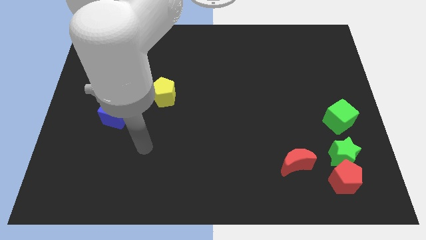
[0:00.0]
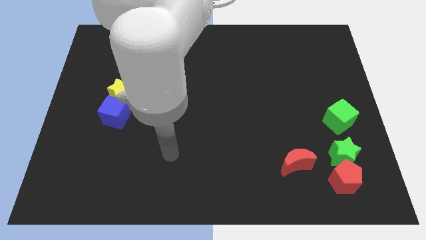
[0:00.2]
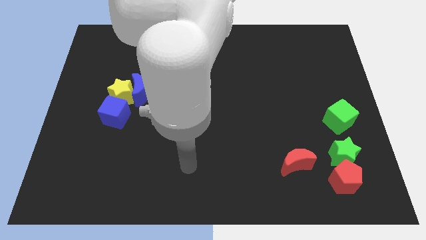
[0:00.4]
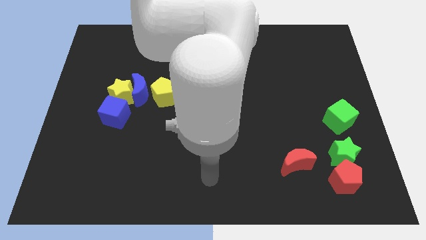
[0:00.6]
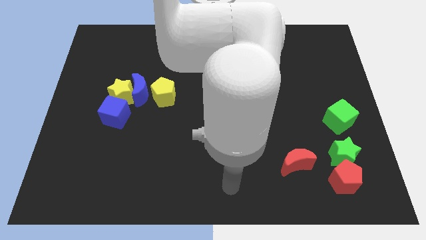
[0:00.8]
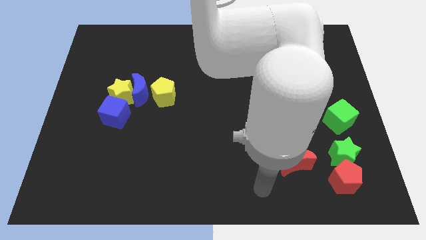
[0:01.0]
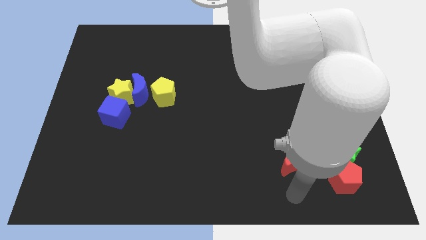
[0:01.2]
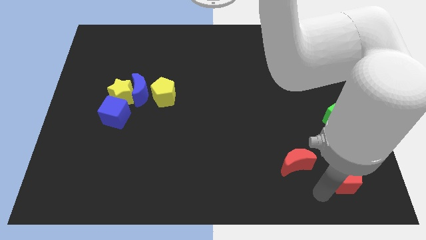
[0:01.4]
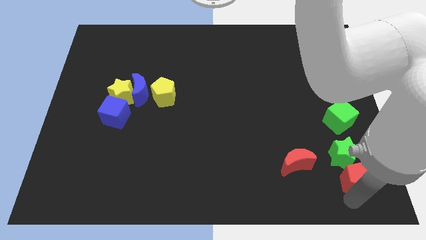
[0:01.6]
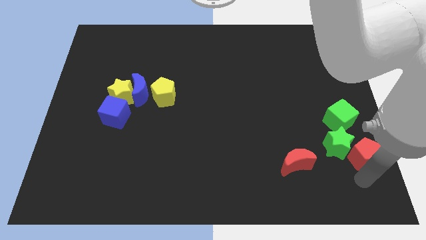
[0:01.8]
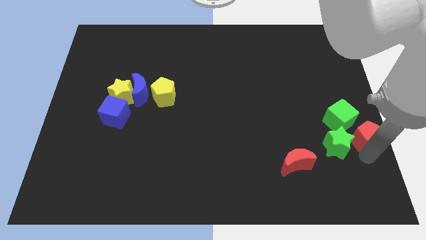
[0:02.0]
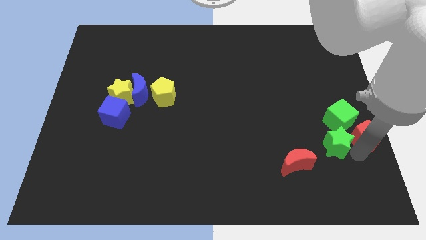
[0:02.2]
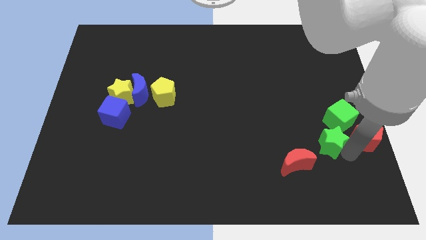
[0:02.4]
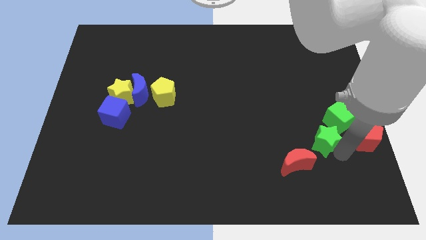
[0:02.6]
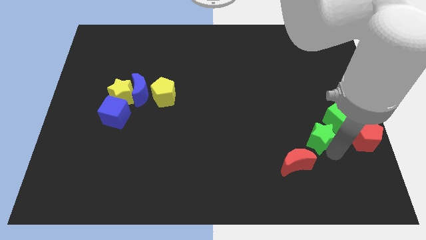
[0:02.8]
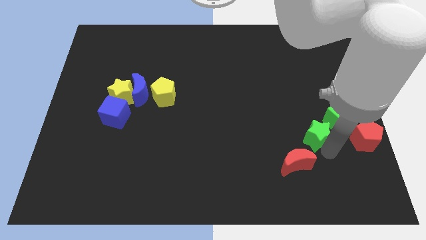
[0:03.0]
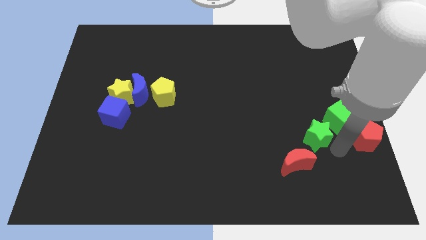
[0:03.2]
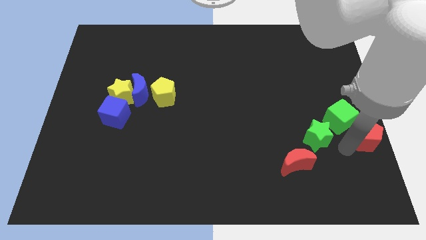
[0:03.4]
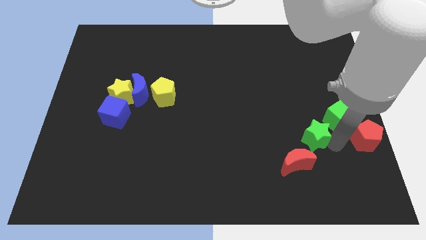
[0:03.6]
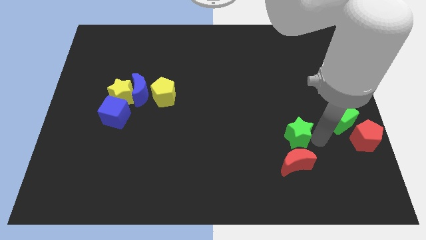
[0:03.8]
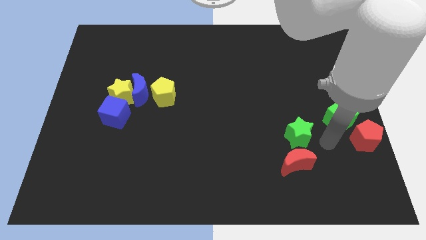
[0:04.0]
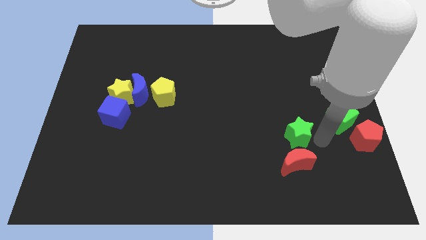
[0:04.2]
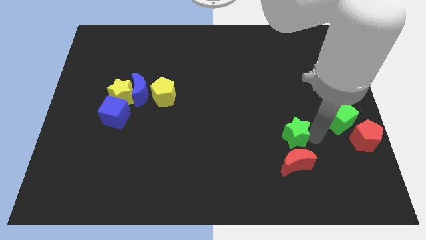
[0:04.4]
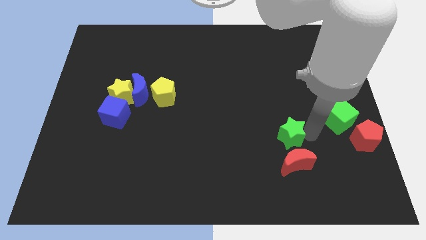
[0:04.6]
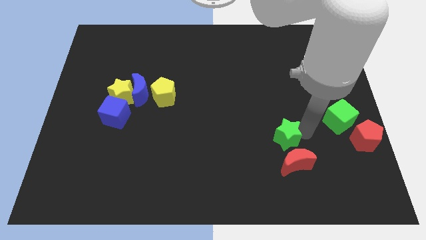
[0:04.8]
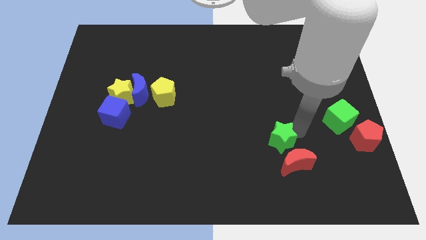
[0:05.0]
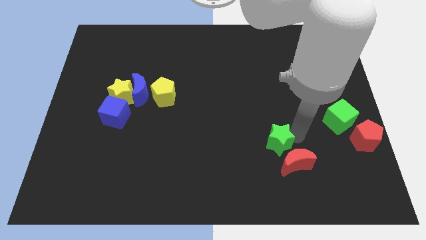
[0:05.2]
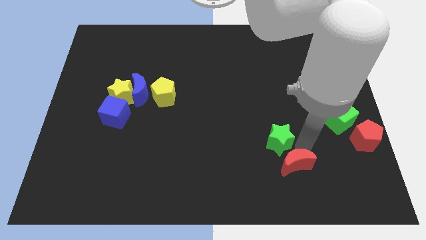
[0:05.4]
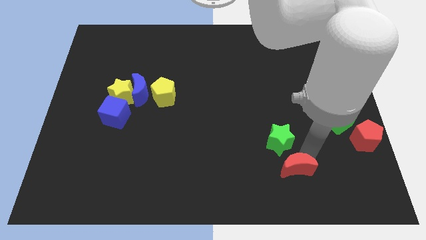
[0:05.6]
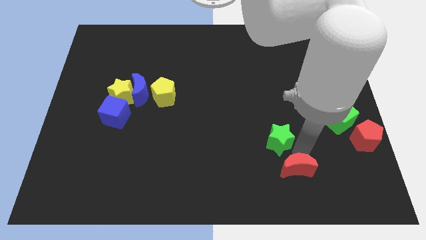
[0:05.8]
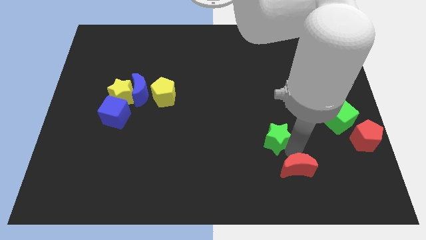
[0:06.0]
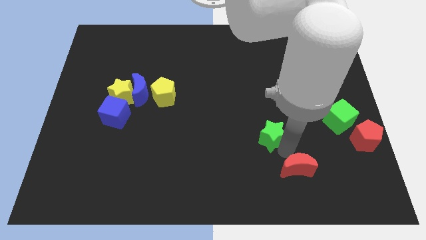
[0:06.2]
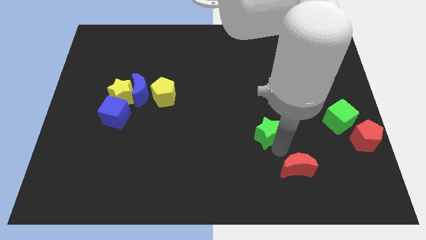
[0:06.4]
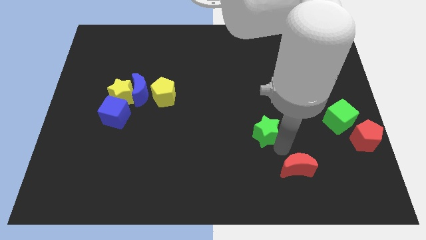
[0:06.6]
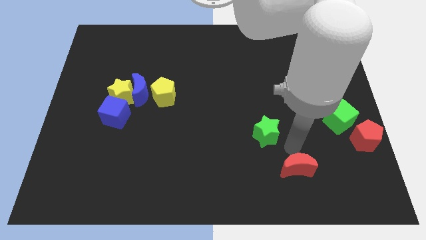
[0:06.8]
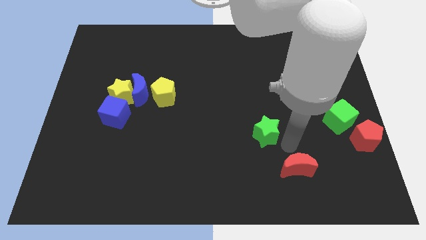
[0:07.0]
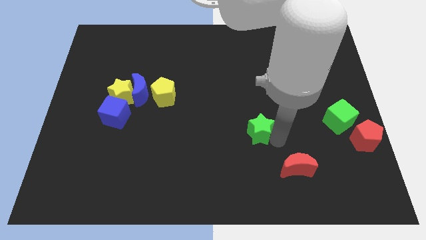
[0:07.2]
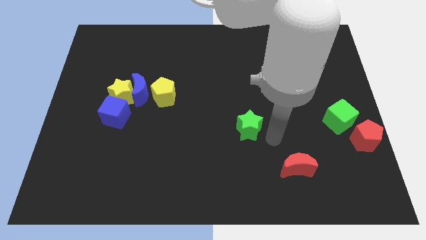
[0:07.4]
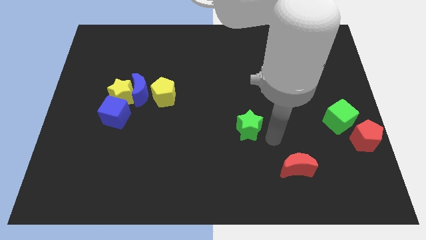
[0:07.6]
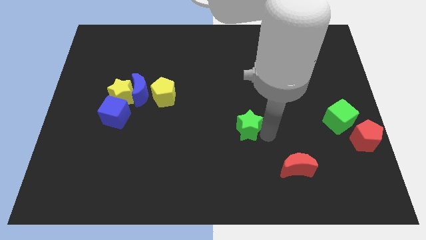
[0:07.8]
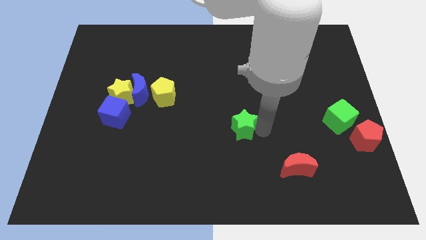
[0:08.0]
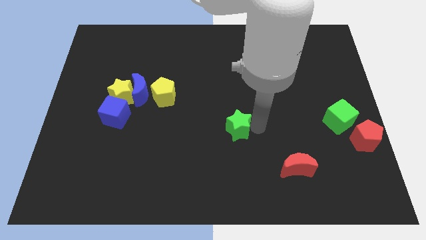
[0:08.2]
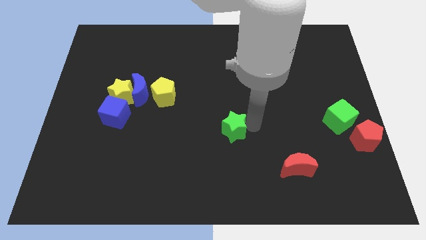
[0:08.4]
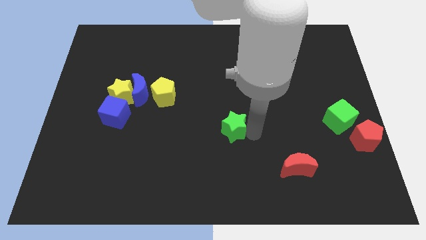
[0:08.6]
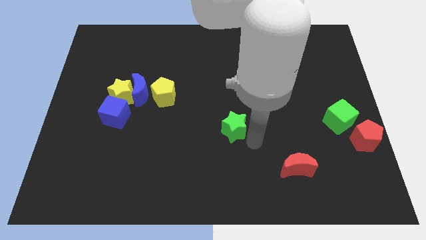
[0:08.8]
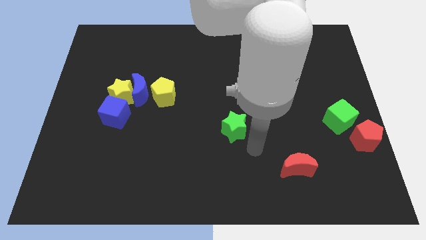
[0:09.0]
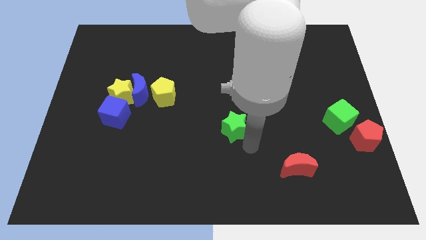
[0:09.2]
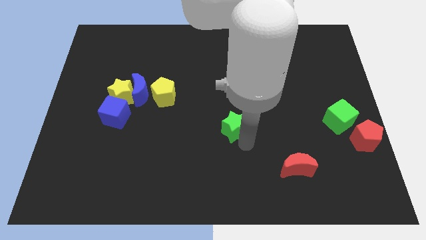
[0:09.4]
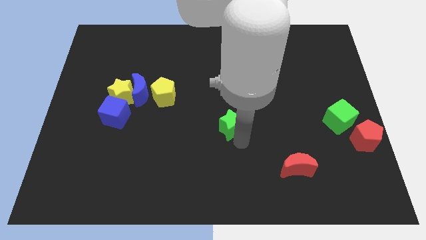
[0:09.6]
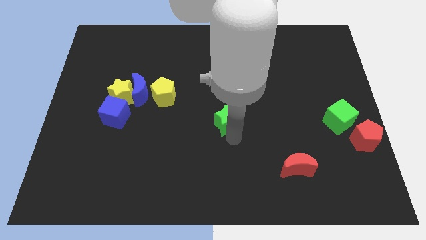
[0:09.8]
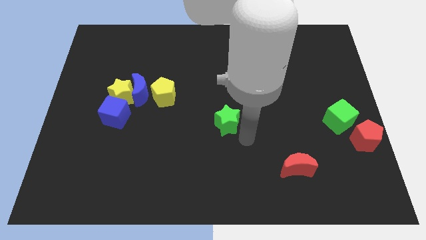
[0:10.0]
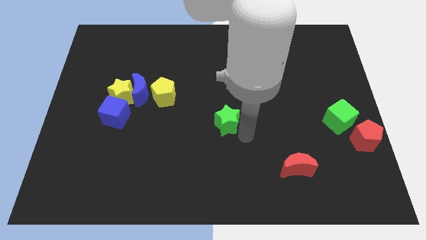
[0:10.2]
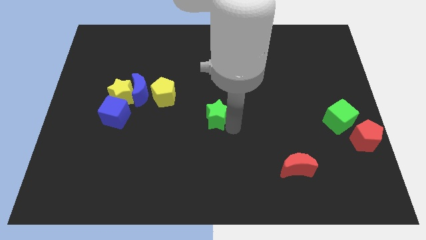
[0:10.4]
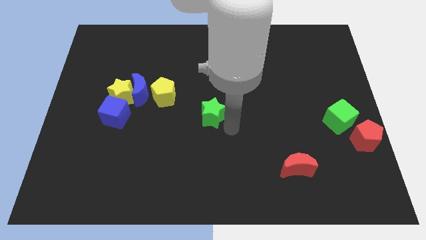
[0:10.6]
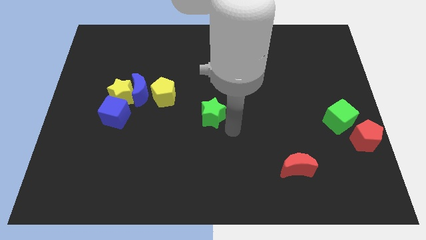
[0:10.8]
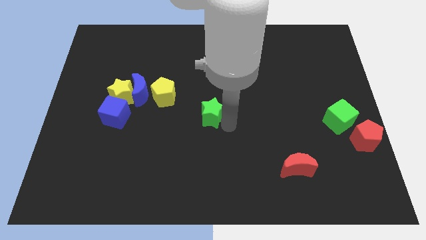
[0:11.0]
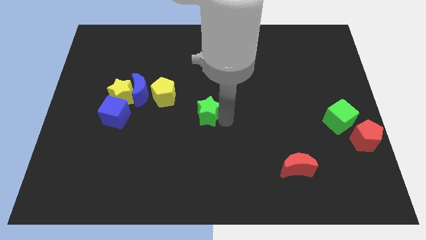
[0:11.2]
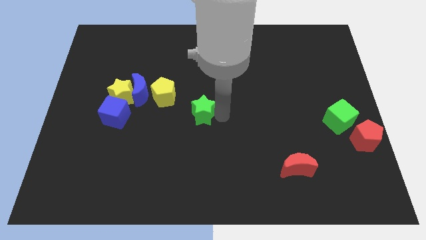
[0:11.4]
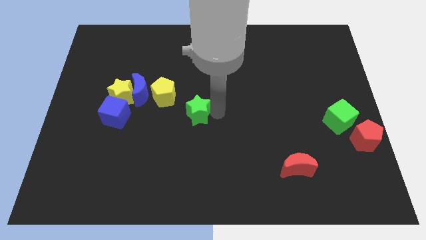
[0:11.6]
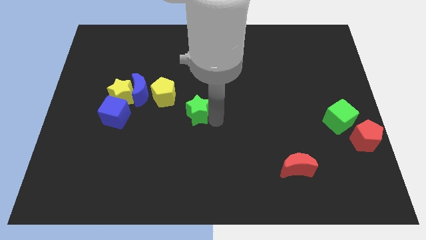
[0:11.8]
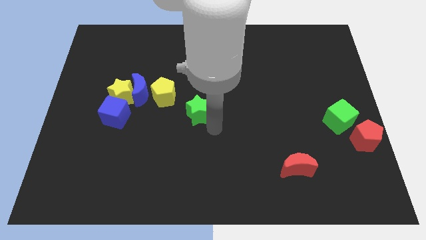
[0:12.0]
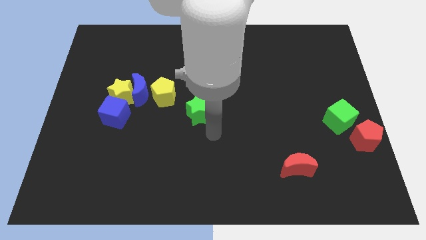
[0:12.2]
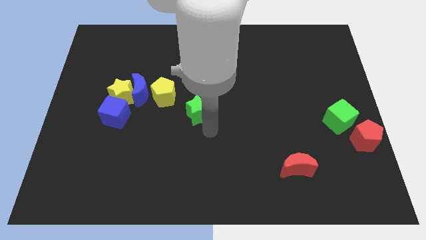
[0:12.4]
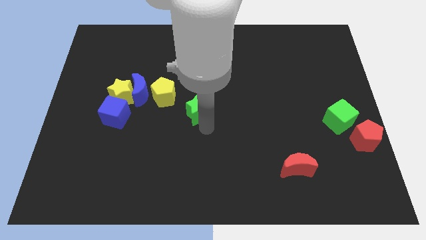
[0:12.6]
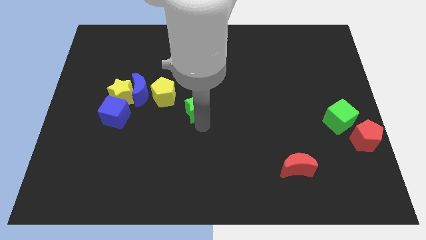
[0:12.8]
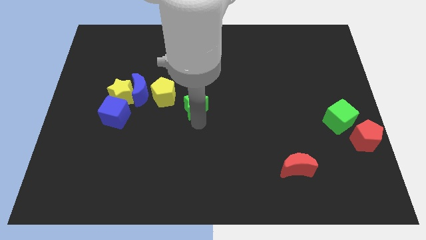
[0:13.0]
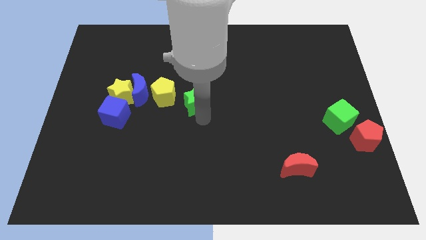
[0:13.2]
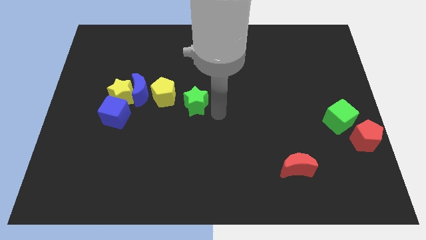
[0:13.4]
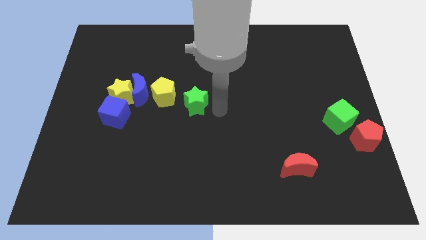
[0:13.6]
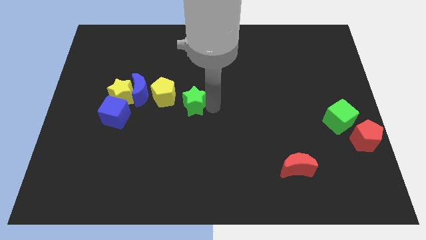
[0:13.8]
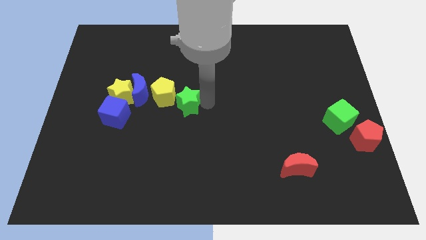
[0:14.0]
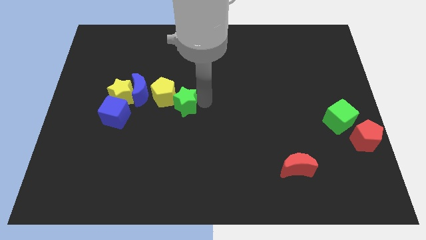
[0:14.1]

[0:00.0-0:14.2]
put the green star next to the yellow pentagon

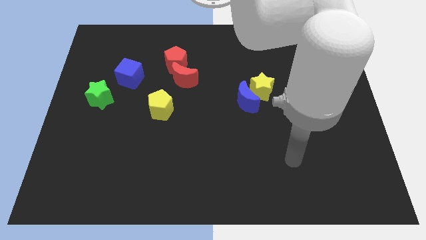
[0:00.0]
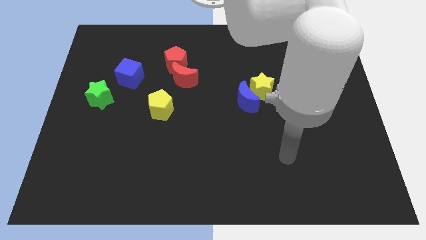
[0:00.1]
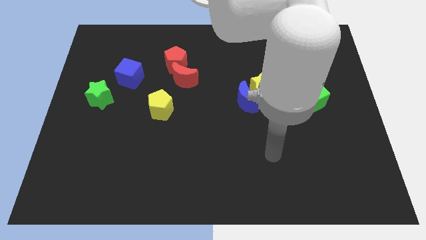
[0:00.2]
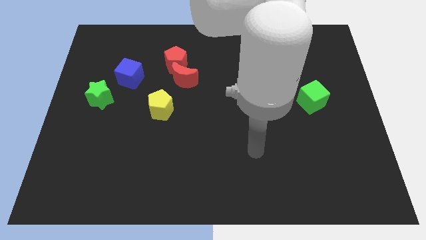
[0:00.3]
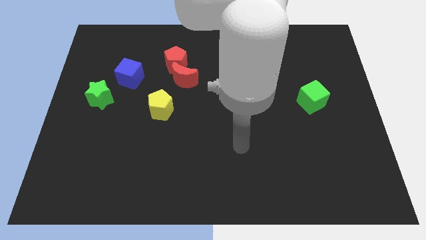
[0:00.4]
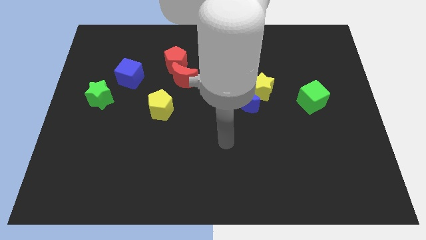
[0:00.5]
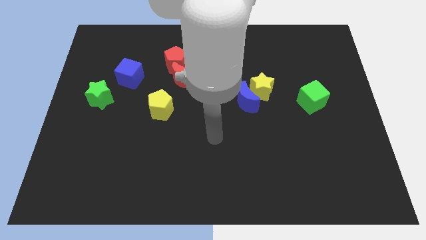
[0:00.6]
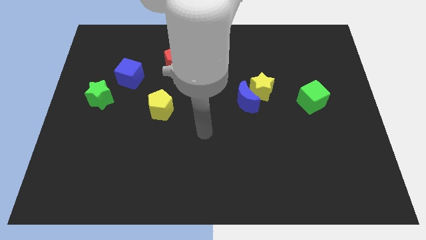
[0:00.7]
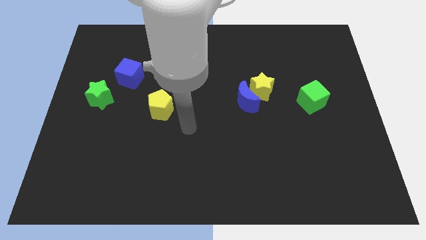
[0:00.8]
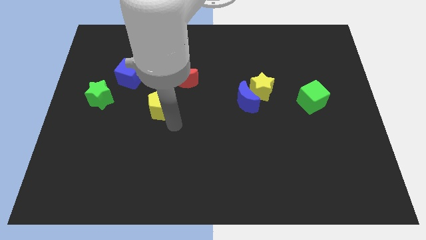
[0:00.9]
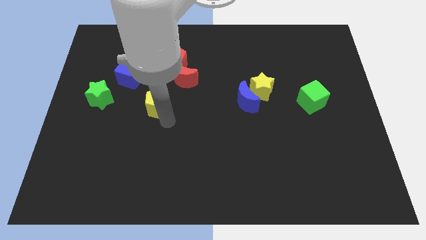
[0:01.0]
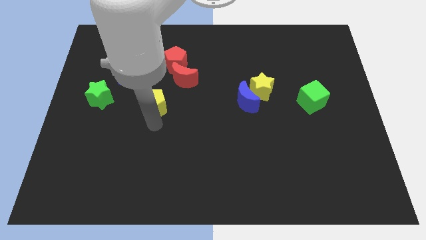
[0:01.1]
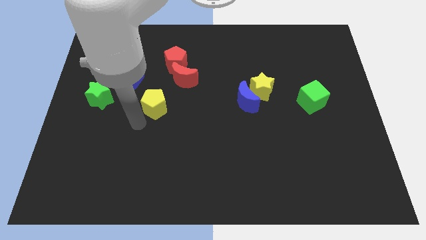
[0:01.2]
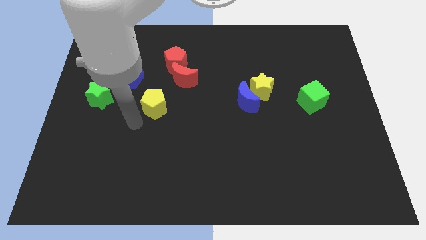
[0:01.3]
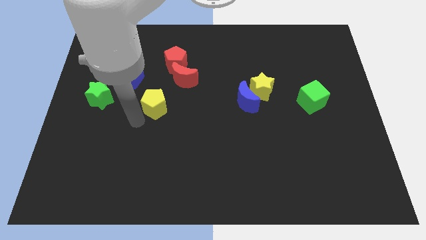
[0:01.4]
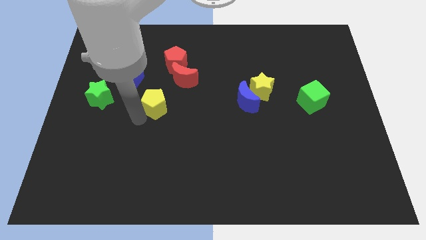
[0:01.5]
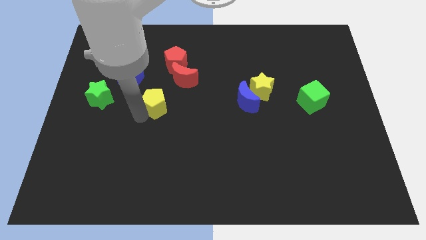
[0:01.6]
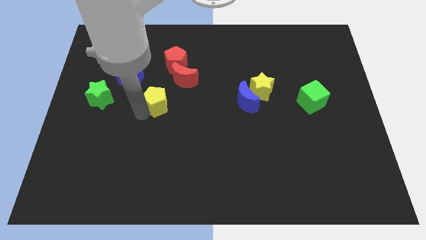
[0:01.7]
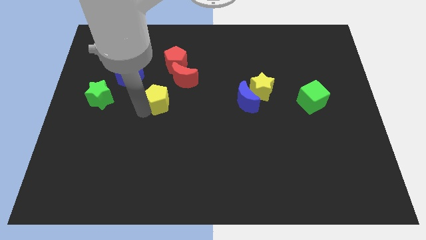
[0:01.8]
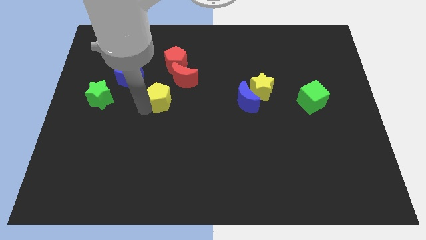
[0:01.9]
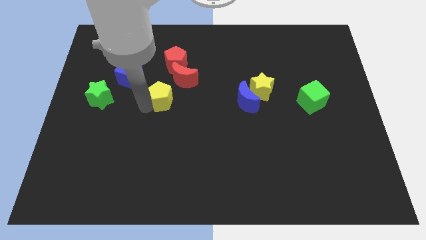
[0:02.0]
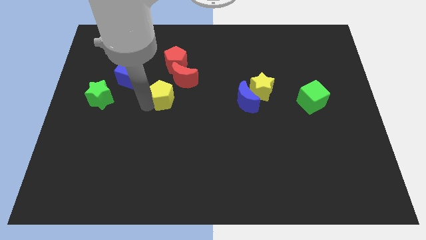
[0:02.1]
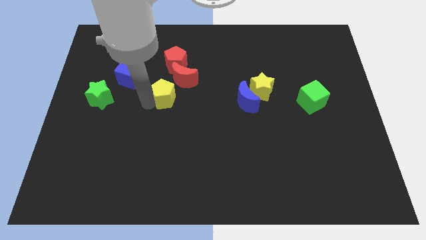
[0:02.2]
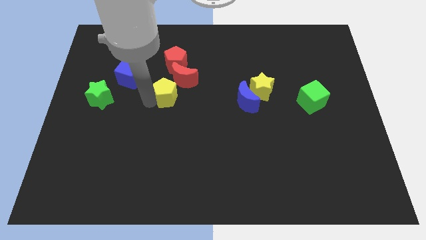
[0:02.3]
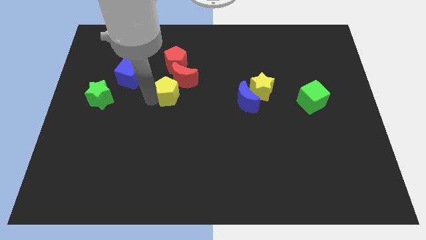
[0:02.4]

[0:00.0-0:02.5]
move the yellow pentagon close to the red moon
